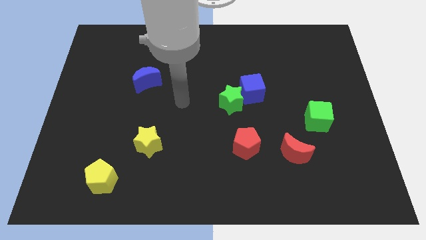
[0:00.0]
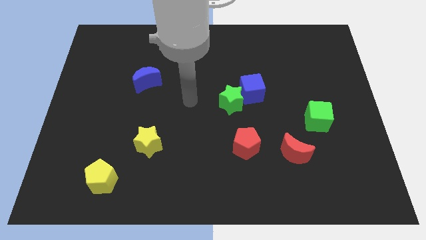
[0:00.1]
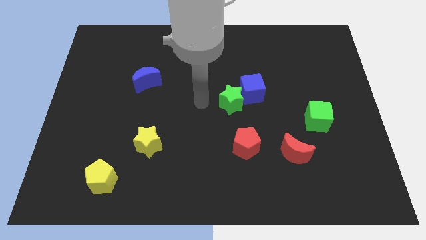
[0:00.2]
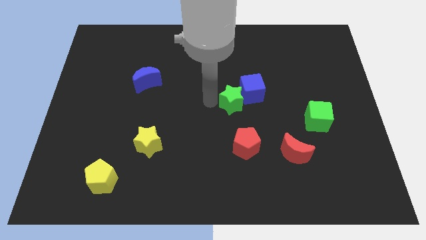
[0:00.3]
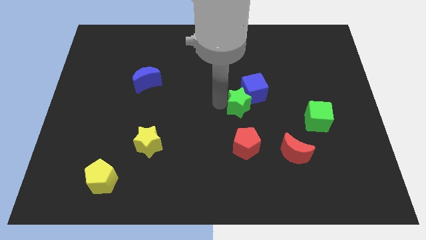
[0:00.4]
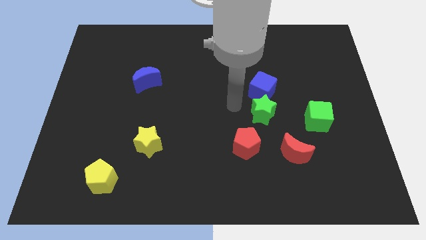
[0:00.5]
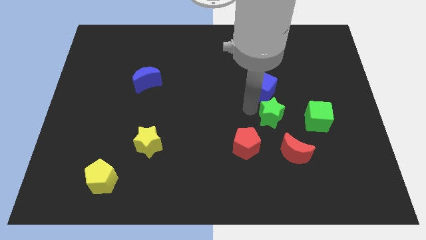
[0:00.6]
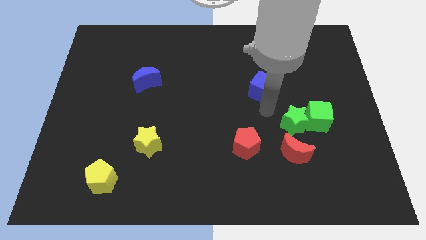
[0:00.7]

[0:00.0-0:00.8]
pull the blue cube apart from the green star

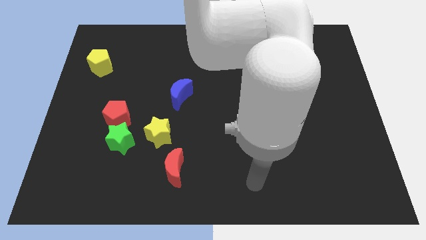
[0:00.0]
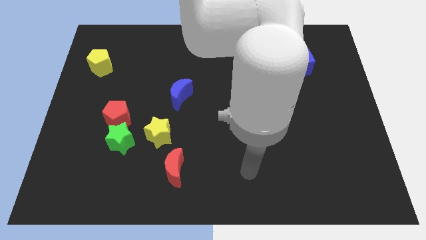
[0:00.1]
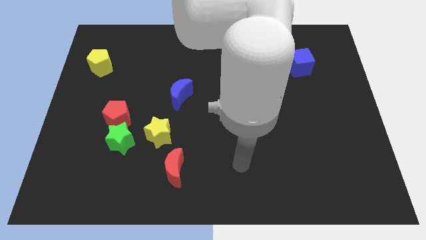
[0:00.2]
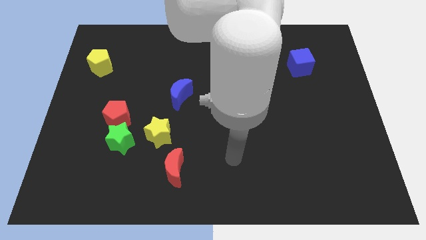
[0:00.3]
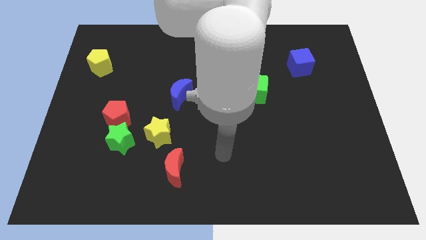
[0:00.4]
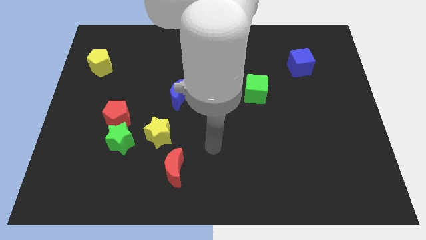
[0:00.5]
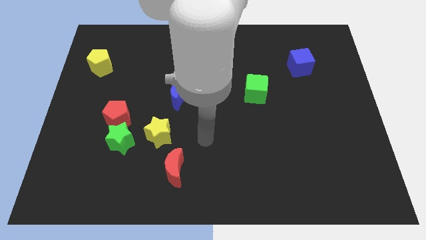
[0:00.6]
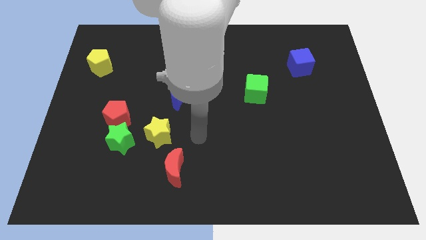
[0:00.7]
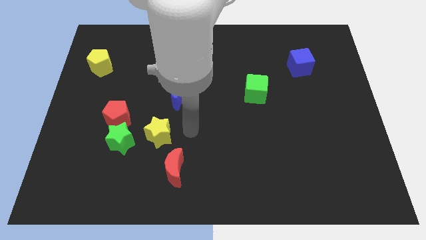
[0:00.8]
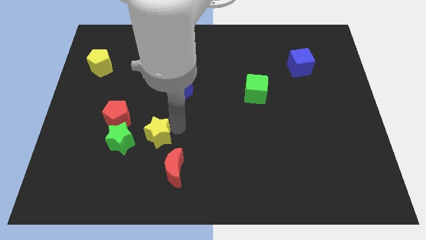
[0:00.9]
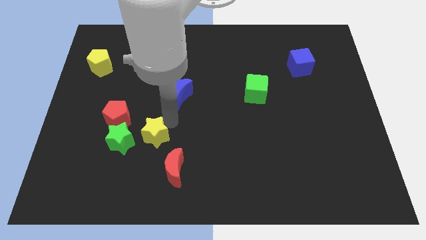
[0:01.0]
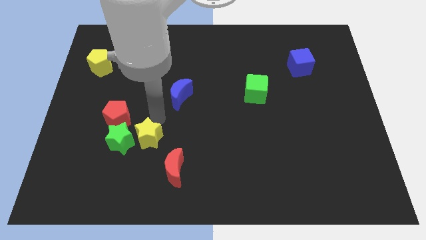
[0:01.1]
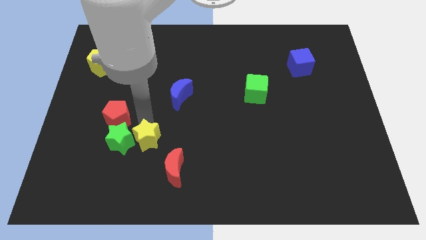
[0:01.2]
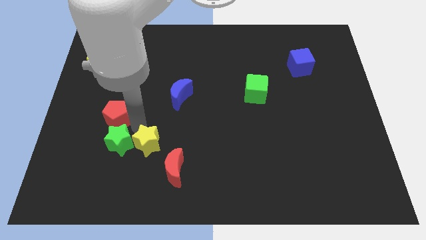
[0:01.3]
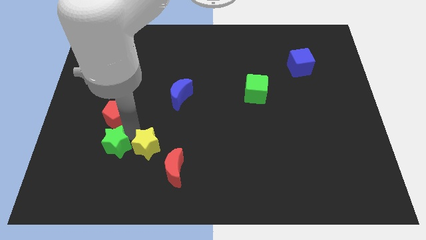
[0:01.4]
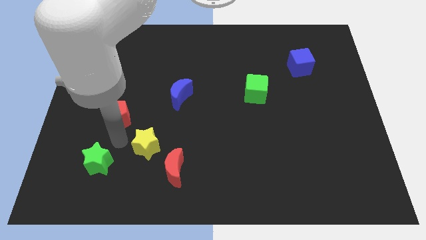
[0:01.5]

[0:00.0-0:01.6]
move the red pentagon away from the green star

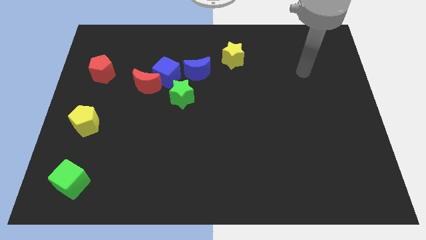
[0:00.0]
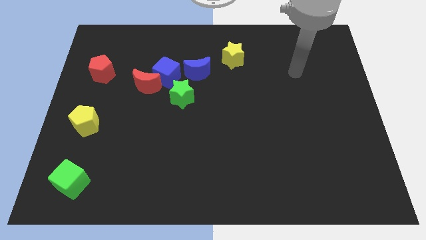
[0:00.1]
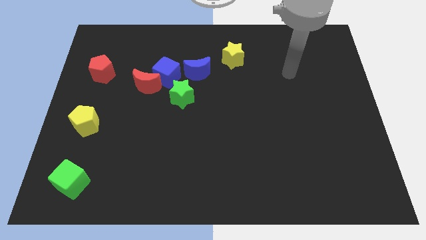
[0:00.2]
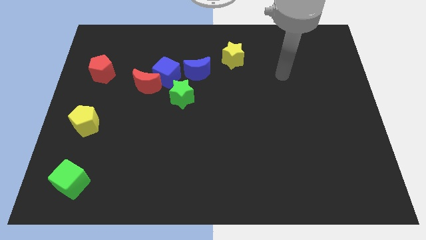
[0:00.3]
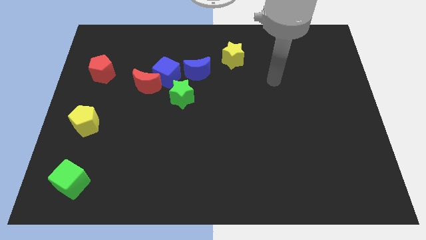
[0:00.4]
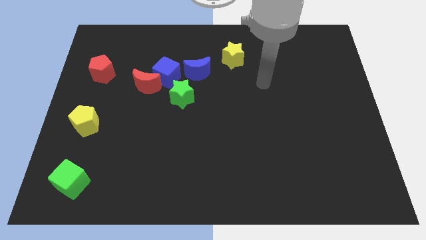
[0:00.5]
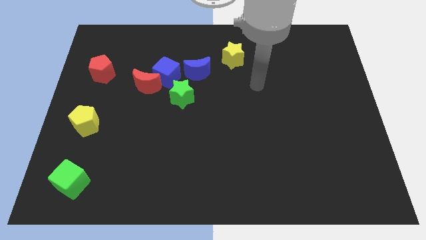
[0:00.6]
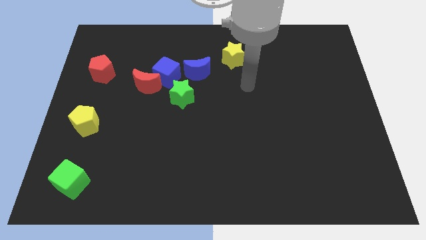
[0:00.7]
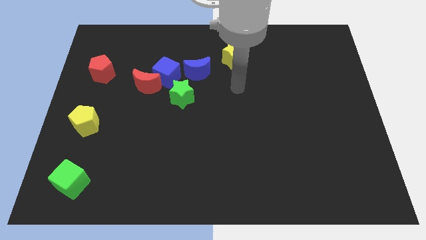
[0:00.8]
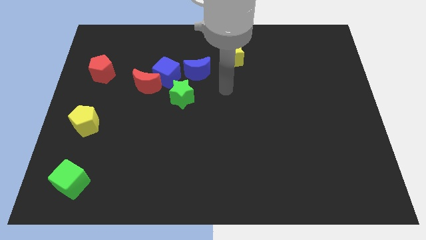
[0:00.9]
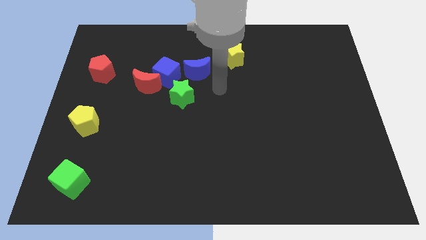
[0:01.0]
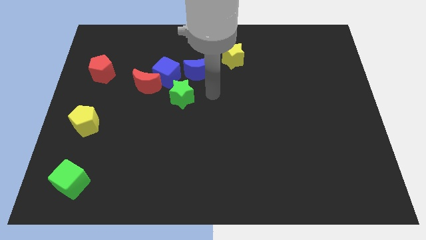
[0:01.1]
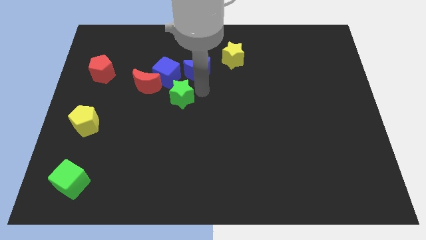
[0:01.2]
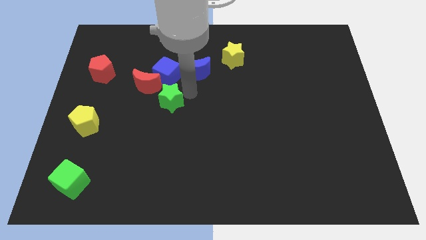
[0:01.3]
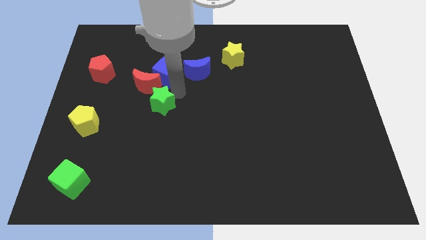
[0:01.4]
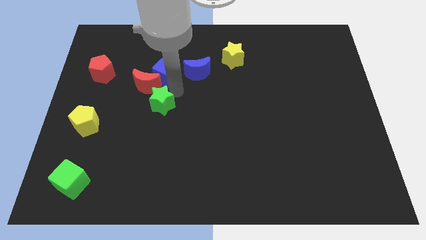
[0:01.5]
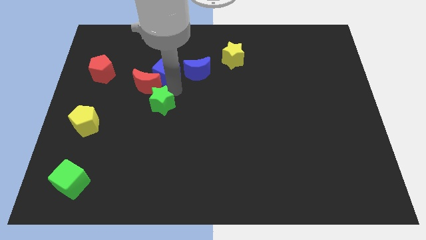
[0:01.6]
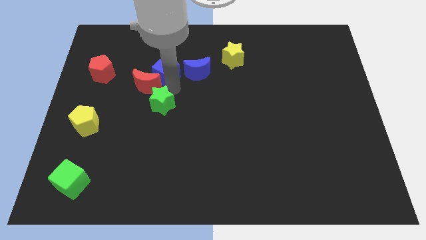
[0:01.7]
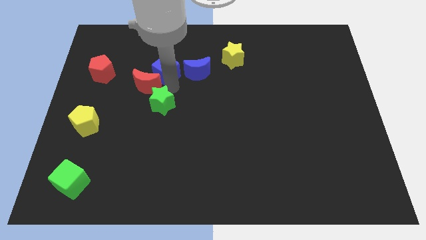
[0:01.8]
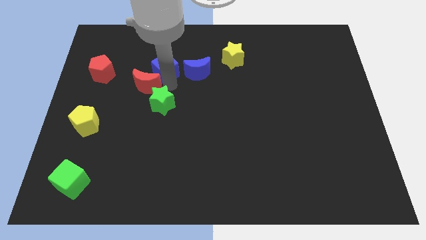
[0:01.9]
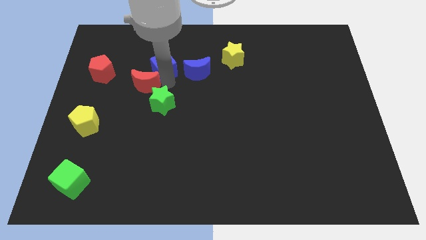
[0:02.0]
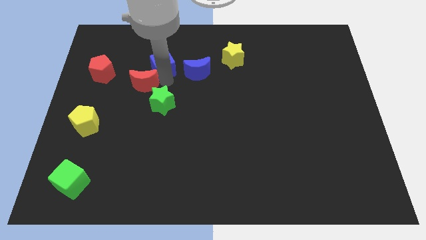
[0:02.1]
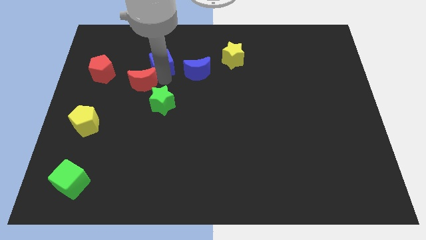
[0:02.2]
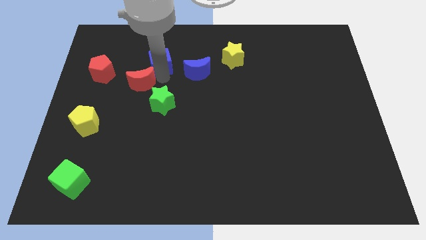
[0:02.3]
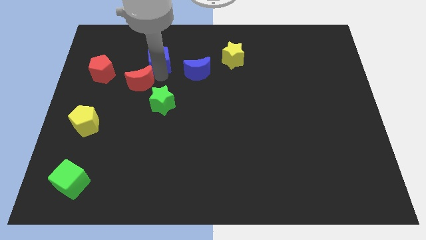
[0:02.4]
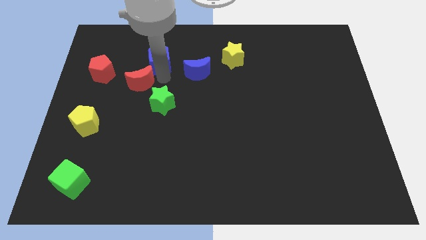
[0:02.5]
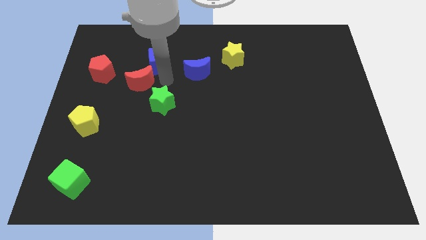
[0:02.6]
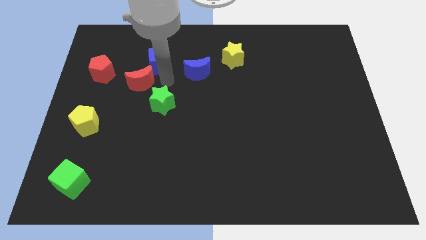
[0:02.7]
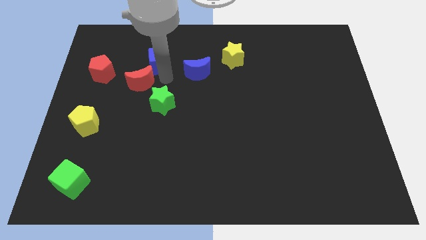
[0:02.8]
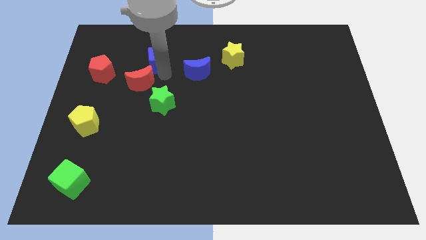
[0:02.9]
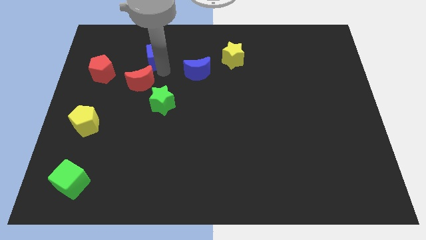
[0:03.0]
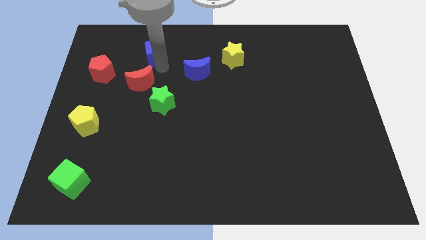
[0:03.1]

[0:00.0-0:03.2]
separate the blue cube from the group of blocks

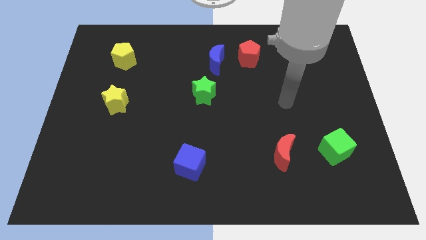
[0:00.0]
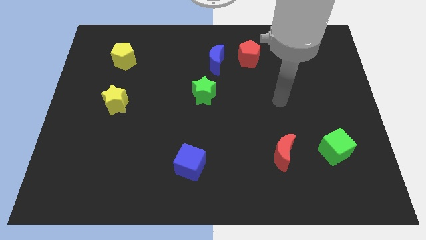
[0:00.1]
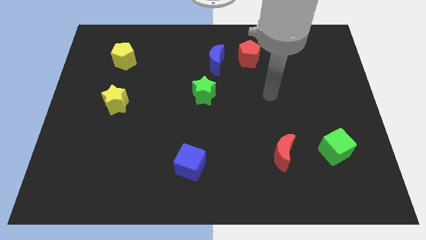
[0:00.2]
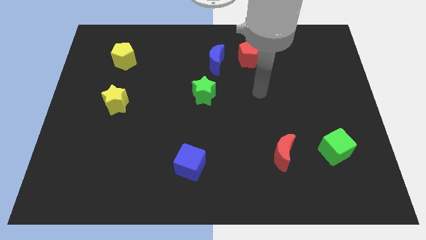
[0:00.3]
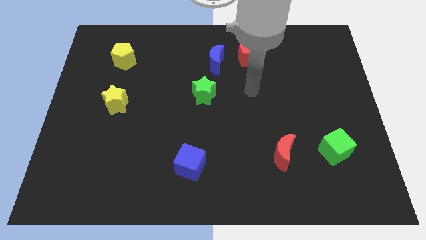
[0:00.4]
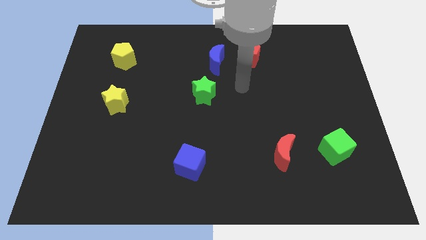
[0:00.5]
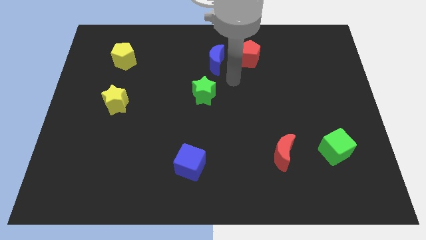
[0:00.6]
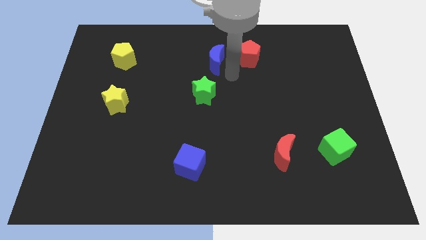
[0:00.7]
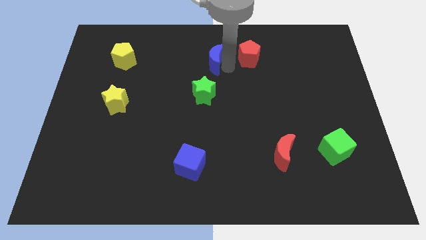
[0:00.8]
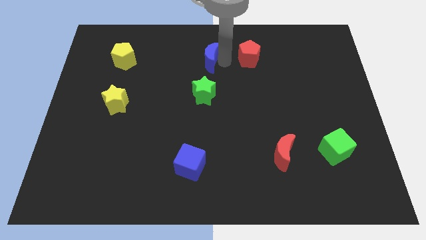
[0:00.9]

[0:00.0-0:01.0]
pull the red pentagon apart from the blue moon

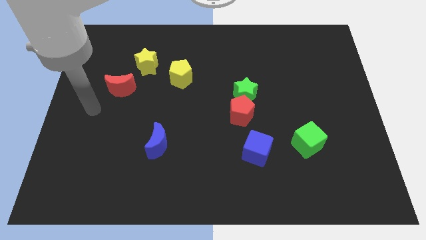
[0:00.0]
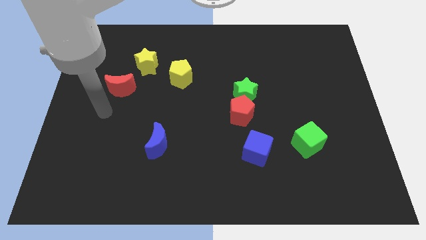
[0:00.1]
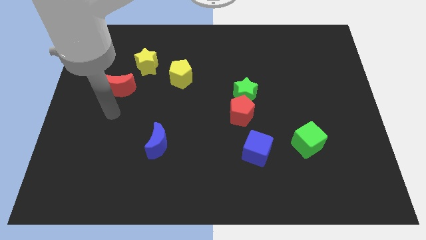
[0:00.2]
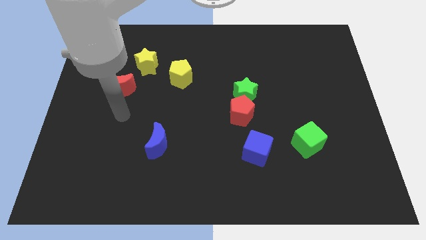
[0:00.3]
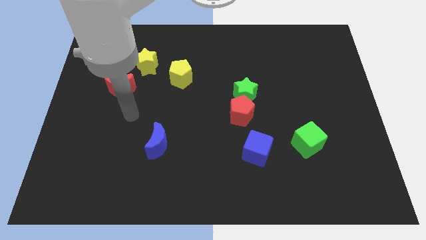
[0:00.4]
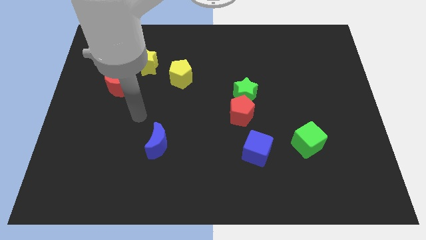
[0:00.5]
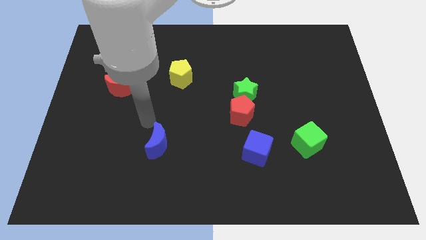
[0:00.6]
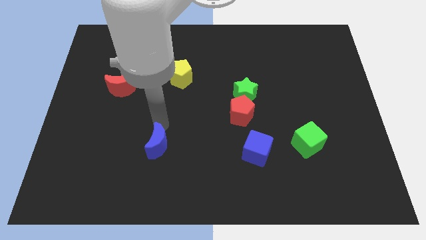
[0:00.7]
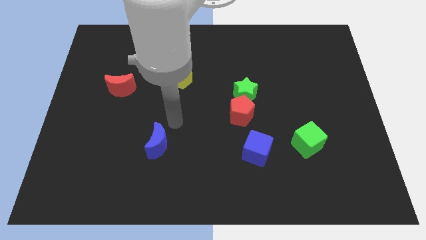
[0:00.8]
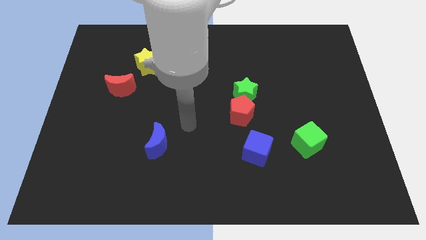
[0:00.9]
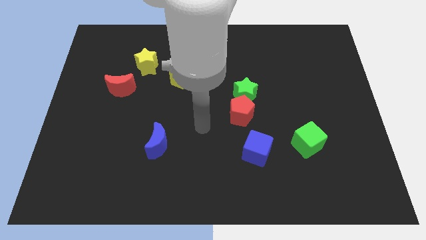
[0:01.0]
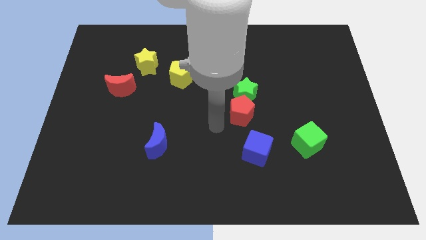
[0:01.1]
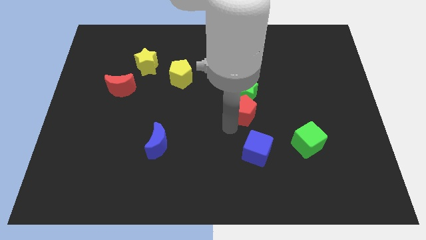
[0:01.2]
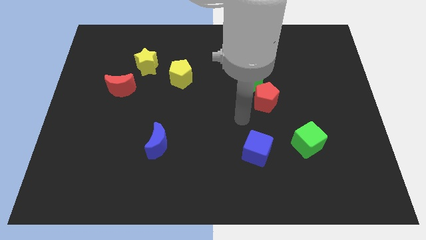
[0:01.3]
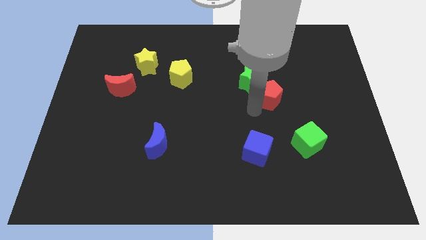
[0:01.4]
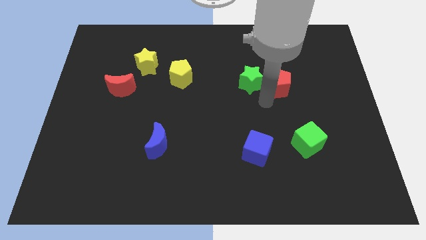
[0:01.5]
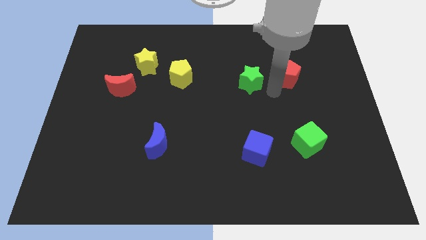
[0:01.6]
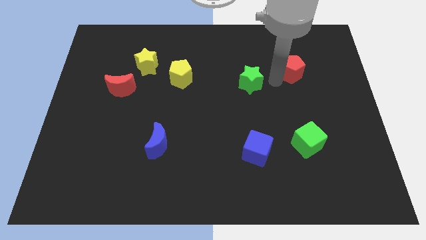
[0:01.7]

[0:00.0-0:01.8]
move the green star away from the red pentagon

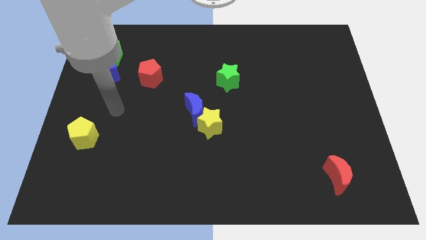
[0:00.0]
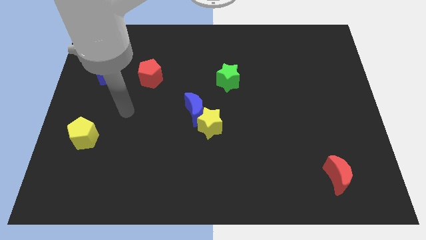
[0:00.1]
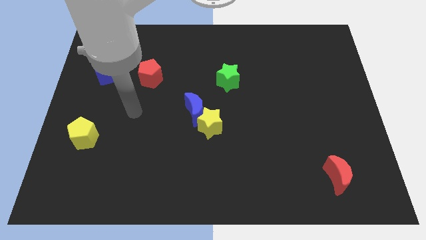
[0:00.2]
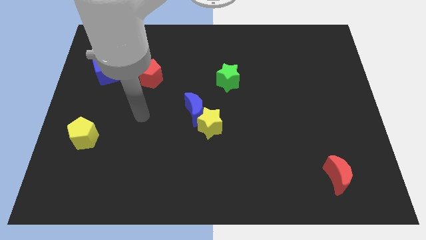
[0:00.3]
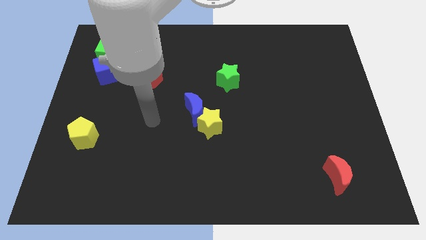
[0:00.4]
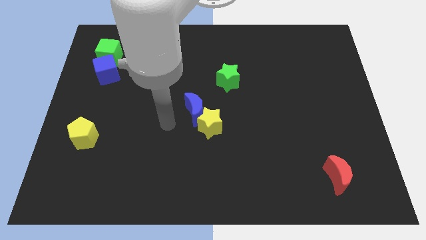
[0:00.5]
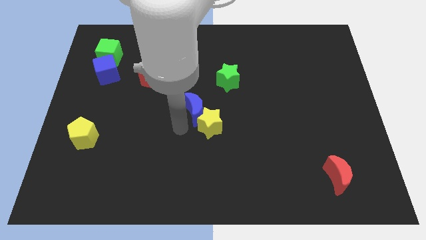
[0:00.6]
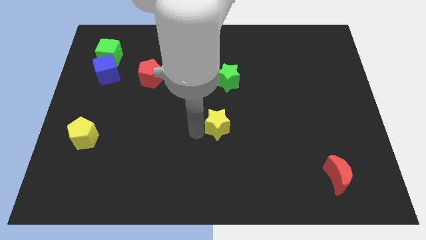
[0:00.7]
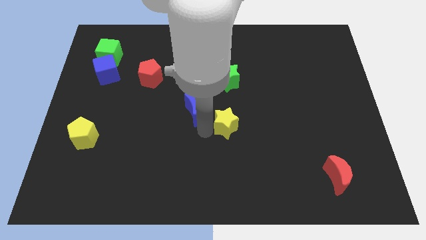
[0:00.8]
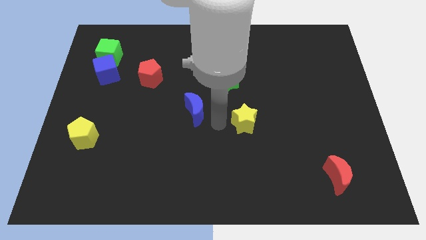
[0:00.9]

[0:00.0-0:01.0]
separate the blue moon from the yellow star
